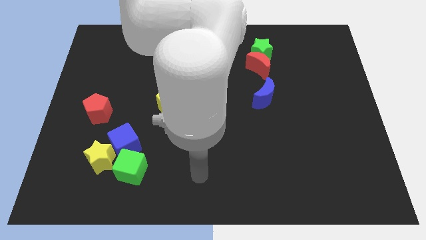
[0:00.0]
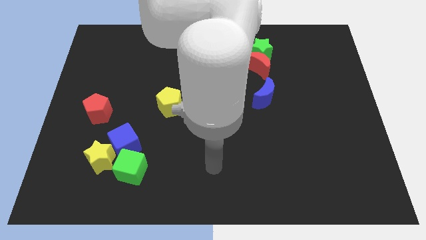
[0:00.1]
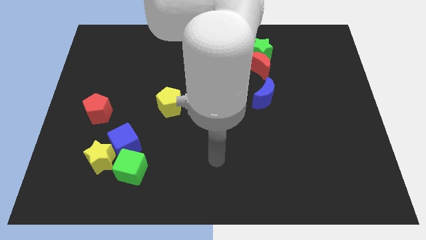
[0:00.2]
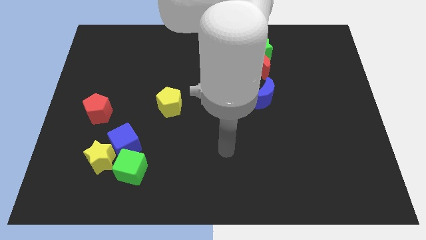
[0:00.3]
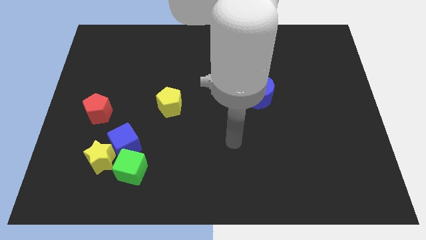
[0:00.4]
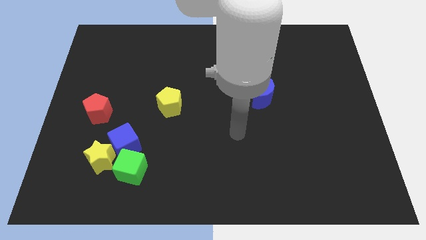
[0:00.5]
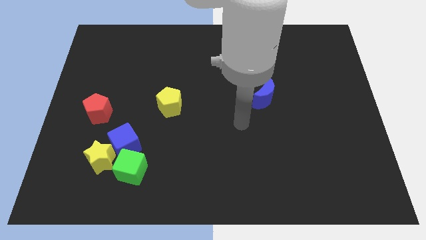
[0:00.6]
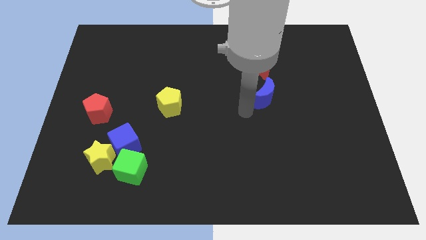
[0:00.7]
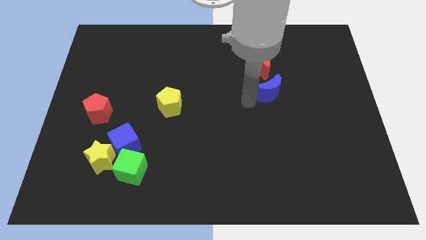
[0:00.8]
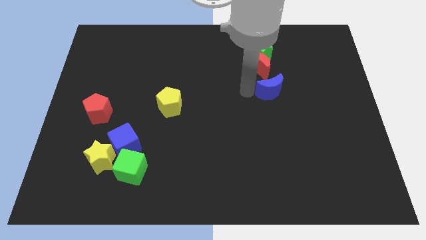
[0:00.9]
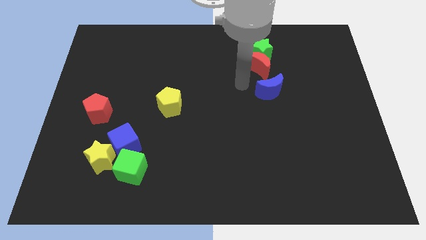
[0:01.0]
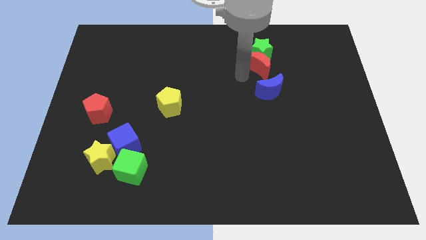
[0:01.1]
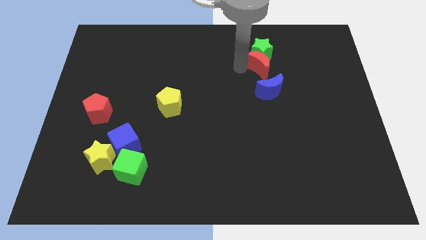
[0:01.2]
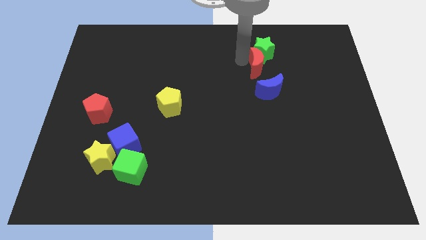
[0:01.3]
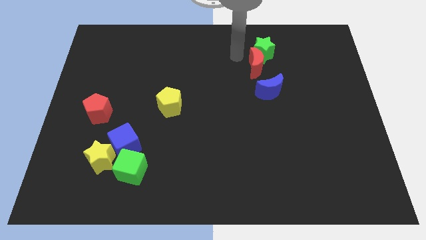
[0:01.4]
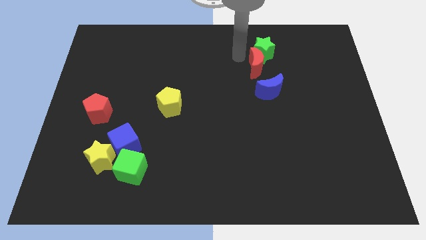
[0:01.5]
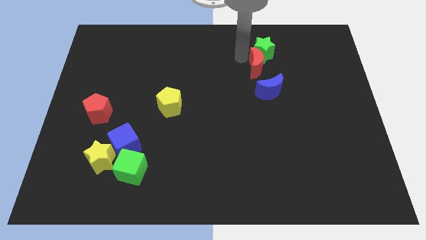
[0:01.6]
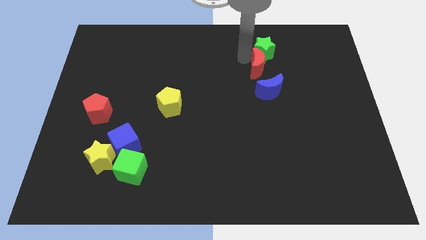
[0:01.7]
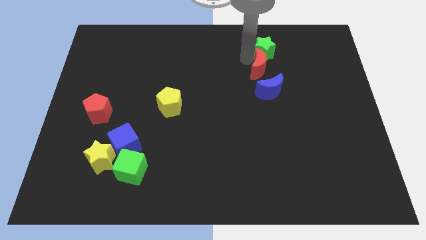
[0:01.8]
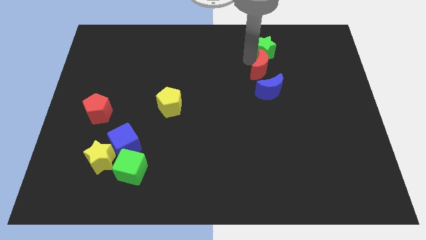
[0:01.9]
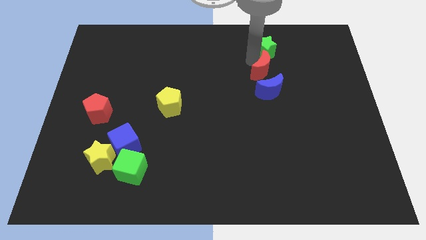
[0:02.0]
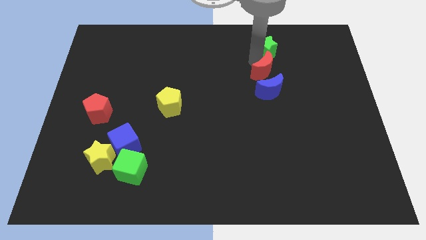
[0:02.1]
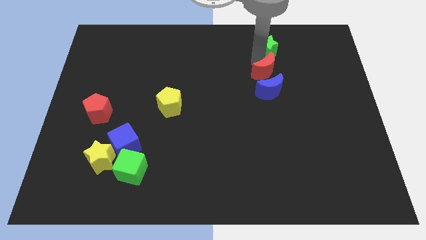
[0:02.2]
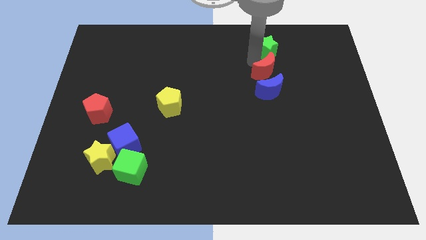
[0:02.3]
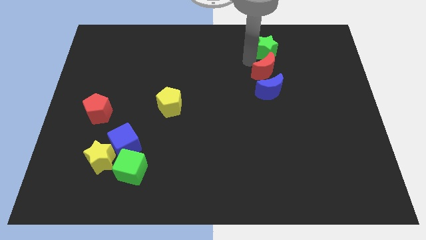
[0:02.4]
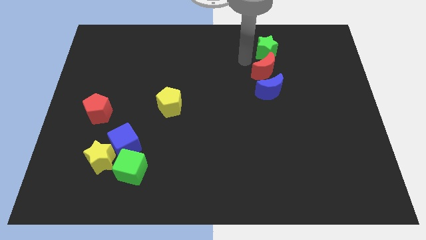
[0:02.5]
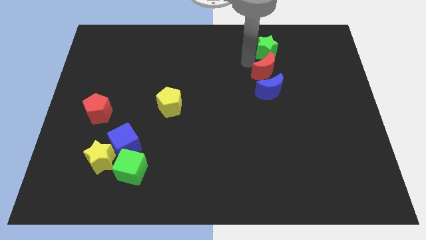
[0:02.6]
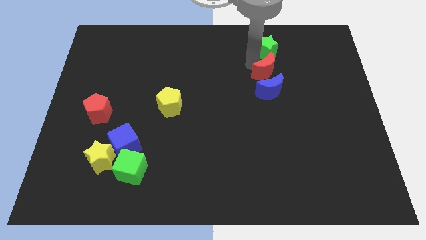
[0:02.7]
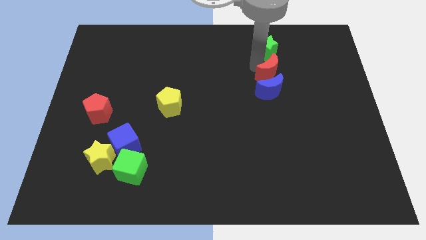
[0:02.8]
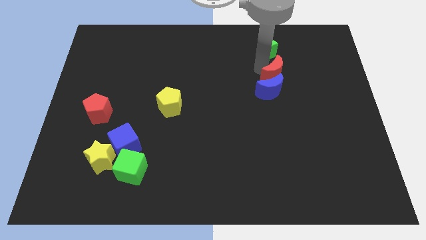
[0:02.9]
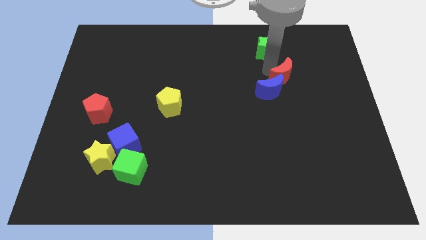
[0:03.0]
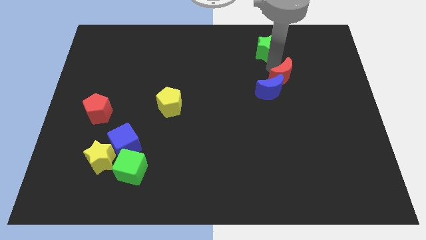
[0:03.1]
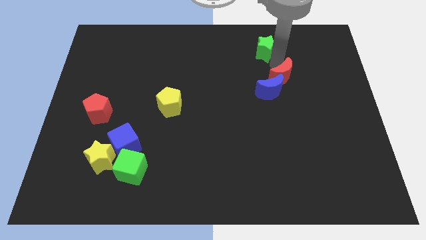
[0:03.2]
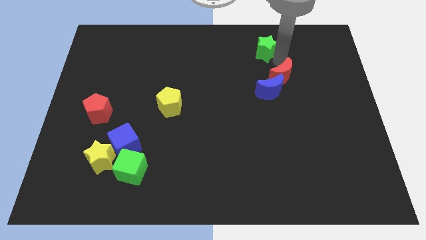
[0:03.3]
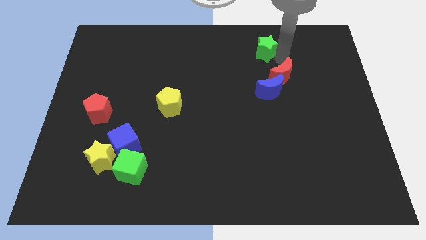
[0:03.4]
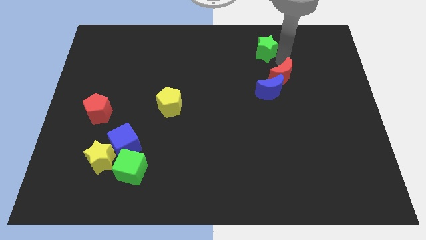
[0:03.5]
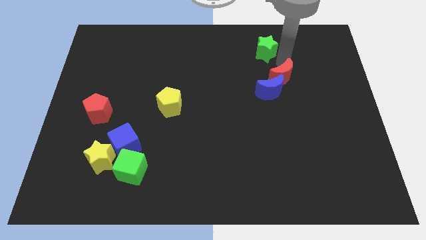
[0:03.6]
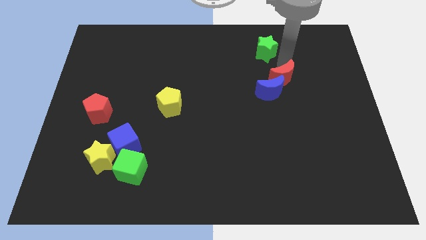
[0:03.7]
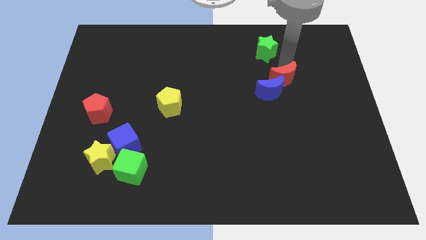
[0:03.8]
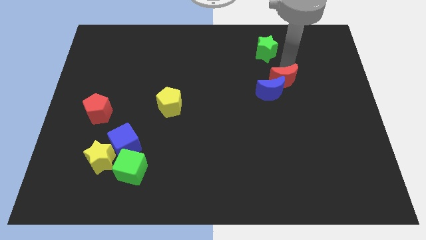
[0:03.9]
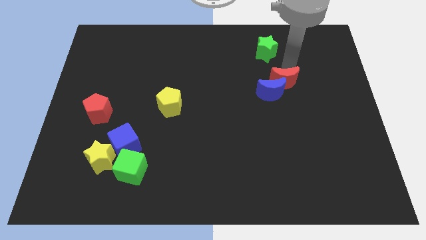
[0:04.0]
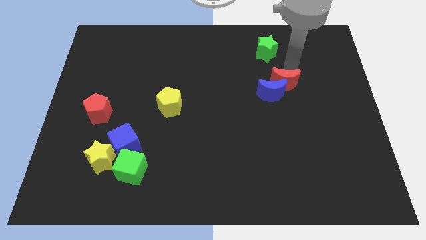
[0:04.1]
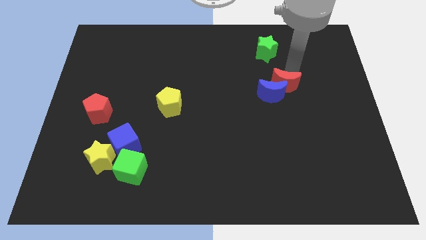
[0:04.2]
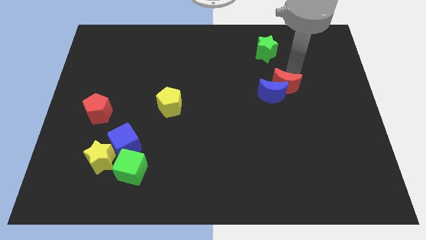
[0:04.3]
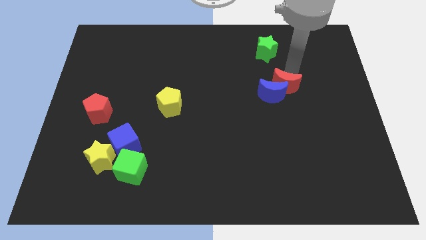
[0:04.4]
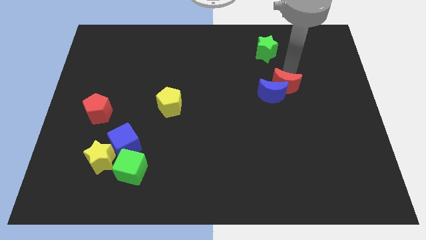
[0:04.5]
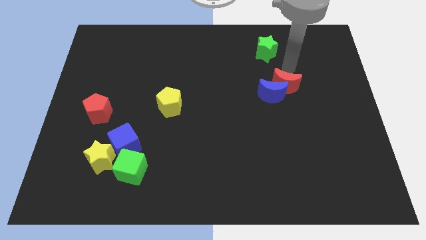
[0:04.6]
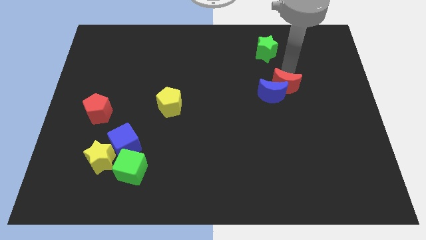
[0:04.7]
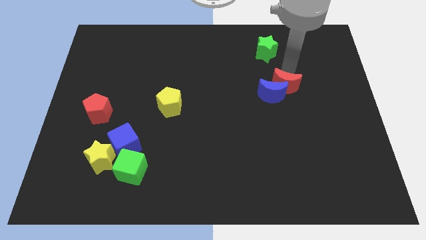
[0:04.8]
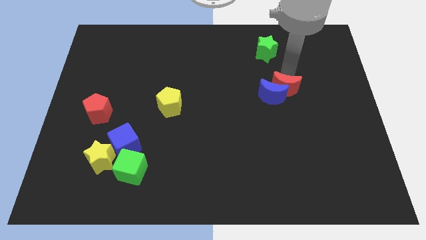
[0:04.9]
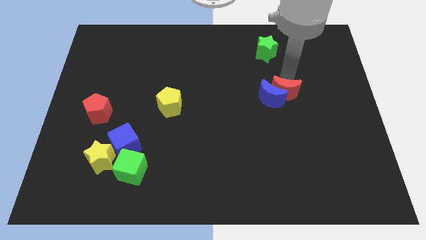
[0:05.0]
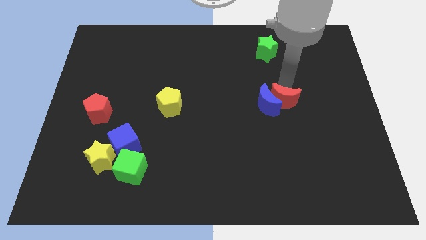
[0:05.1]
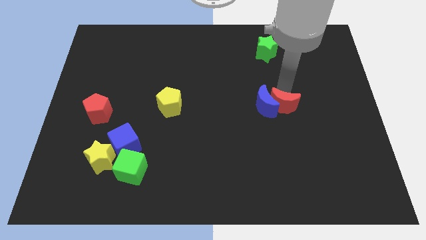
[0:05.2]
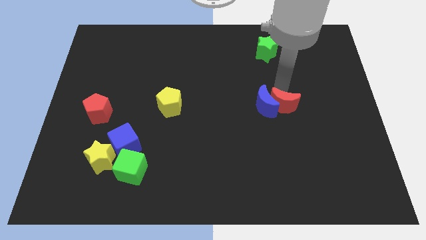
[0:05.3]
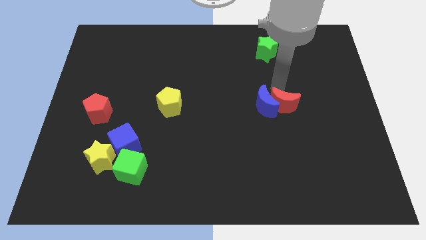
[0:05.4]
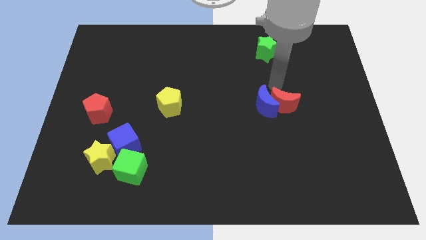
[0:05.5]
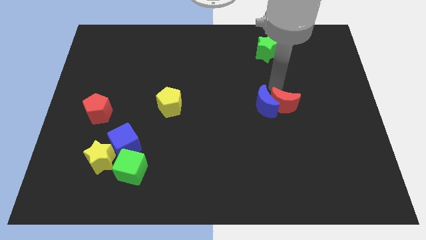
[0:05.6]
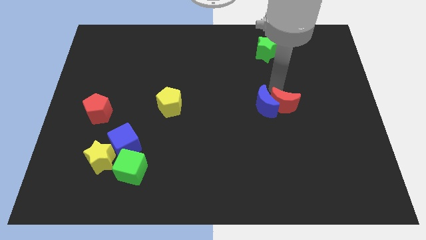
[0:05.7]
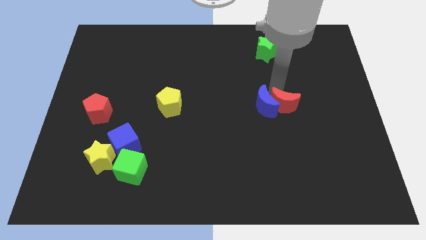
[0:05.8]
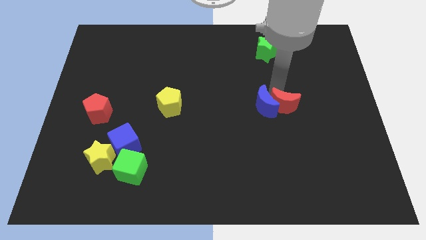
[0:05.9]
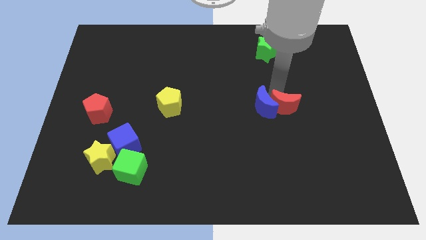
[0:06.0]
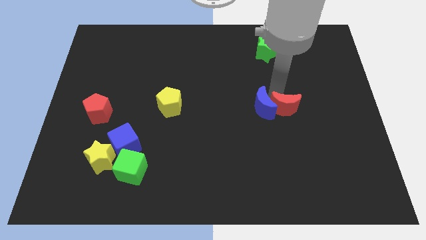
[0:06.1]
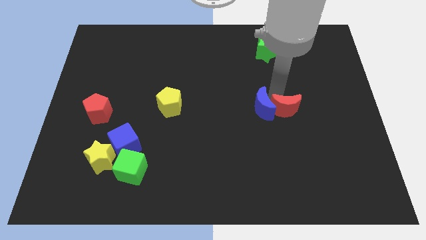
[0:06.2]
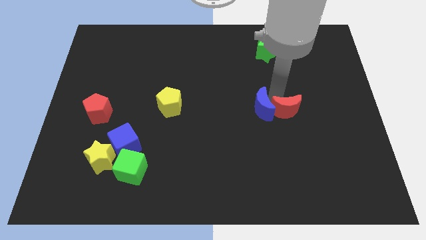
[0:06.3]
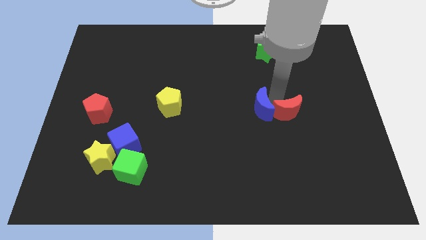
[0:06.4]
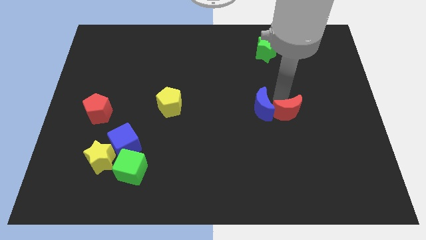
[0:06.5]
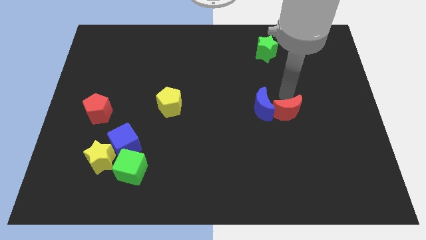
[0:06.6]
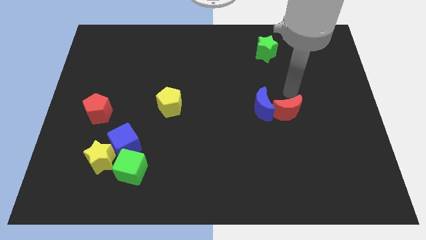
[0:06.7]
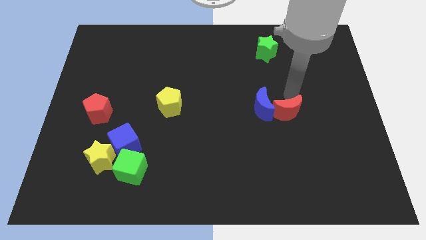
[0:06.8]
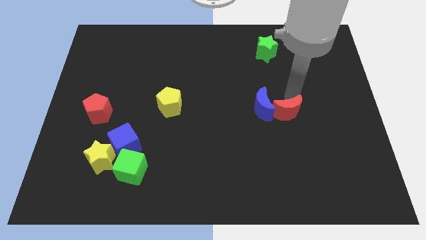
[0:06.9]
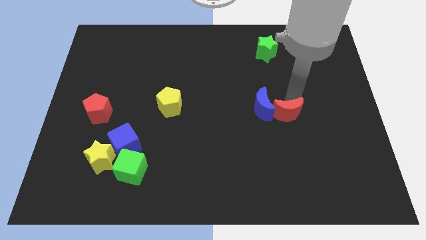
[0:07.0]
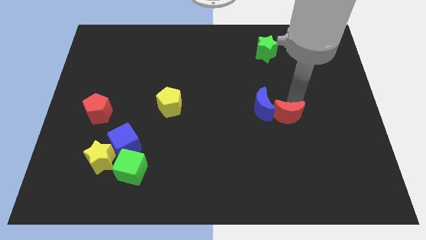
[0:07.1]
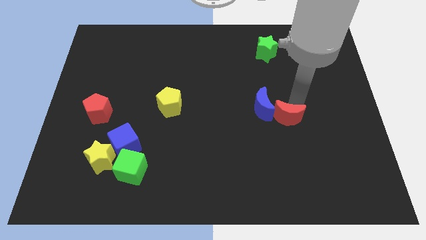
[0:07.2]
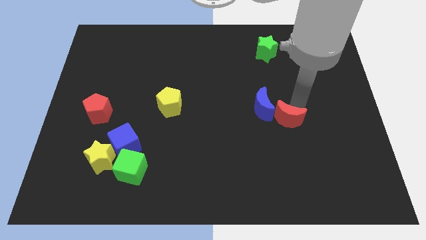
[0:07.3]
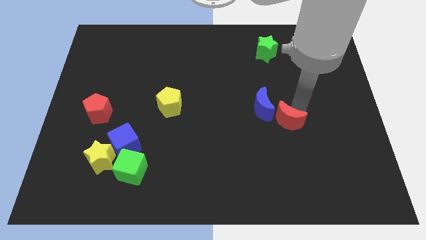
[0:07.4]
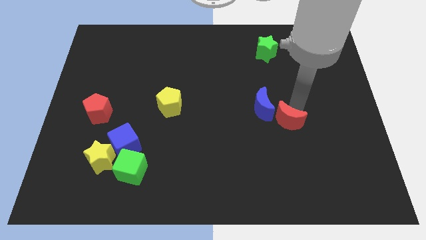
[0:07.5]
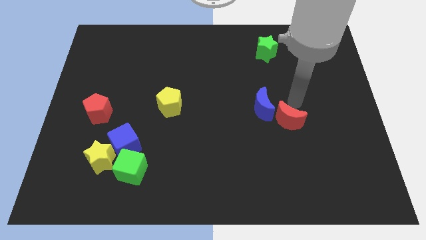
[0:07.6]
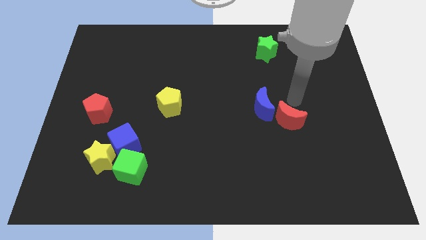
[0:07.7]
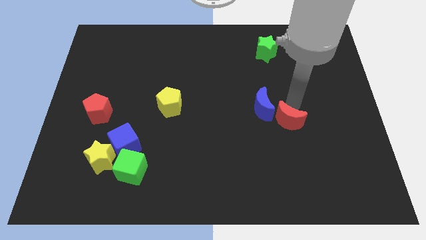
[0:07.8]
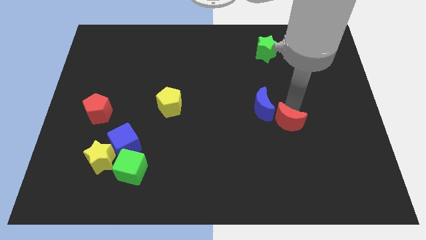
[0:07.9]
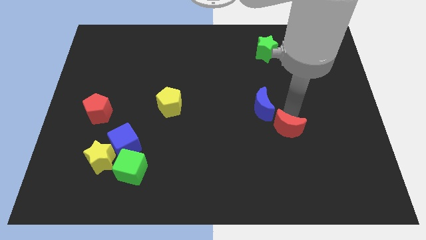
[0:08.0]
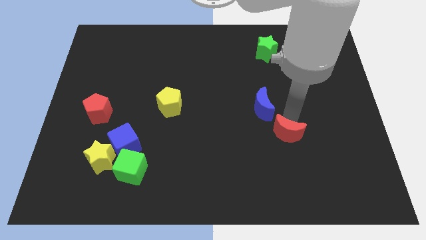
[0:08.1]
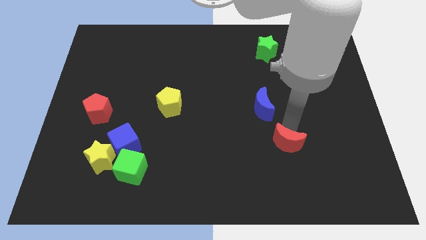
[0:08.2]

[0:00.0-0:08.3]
move the red moon down
